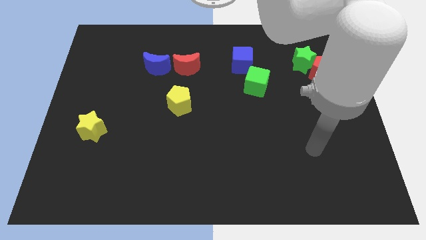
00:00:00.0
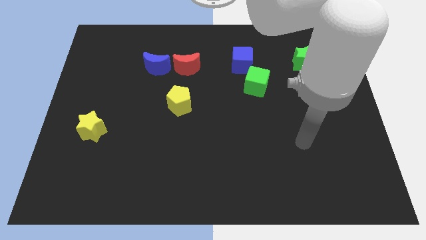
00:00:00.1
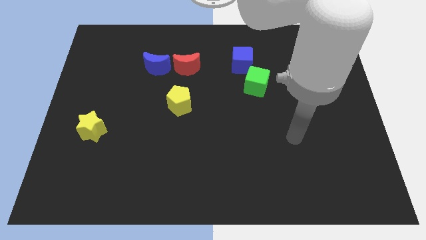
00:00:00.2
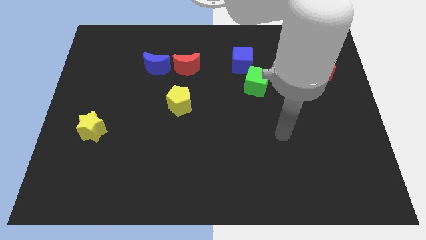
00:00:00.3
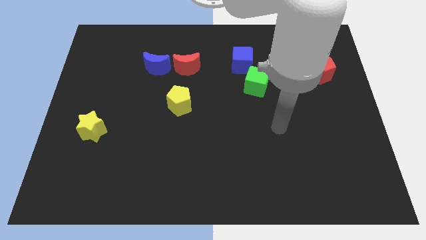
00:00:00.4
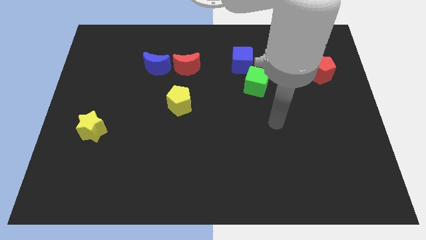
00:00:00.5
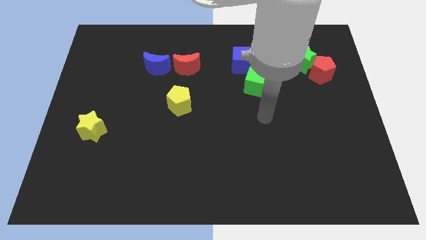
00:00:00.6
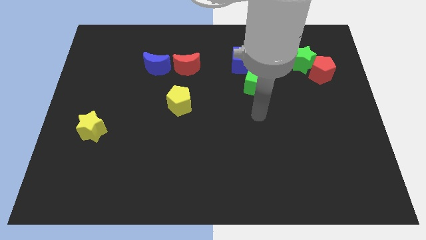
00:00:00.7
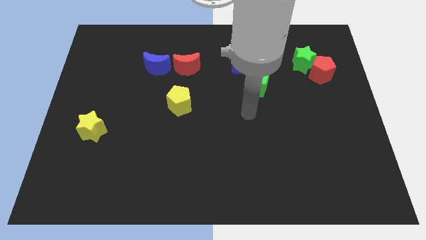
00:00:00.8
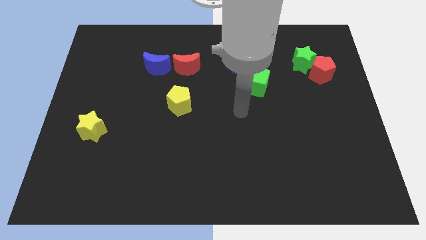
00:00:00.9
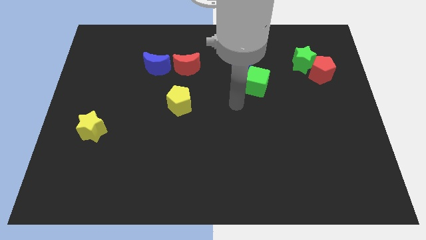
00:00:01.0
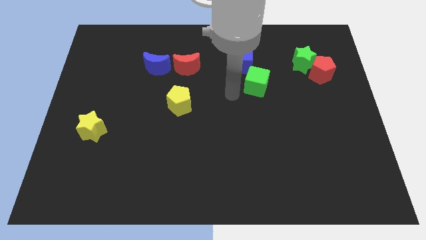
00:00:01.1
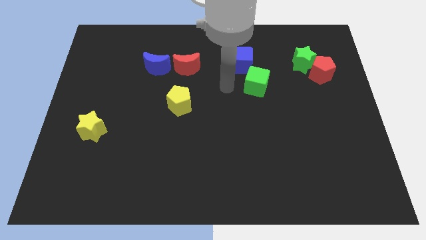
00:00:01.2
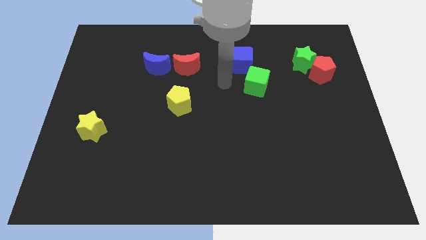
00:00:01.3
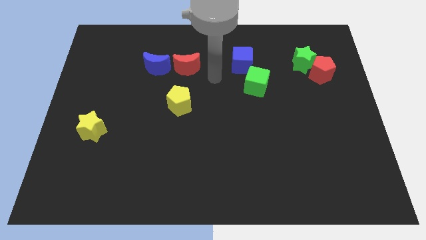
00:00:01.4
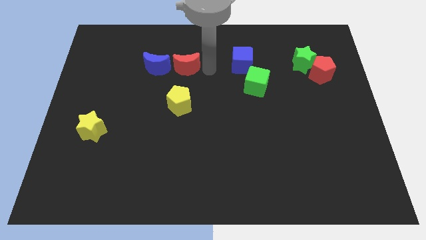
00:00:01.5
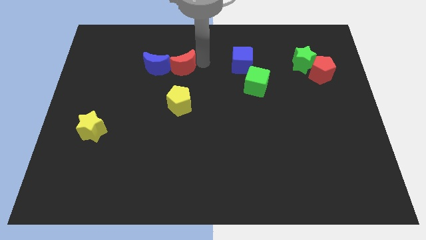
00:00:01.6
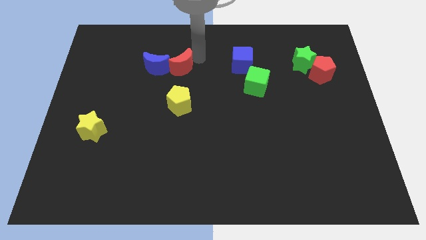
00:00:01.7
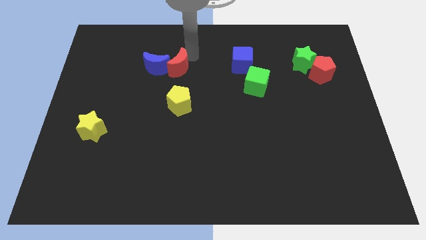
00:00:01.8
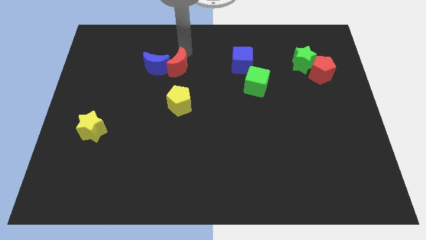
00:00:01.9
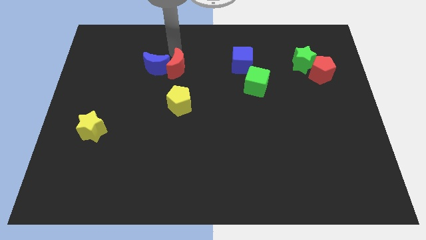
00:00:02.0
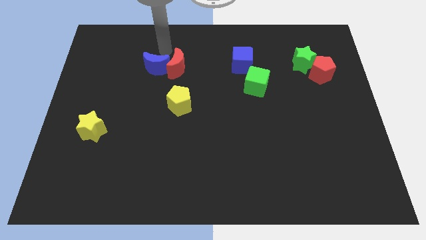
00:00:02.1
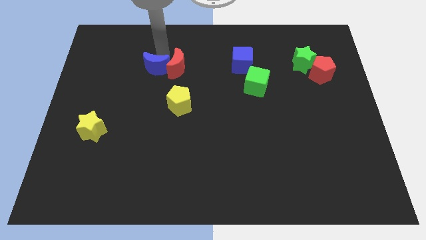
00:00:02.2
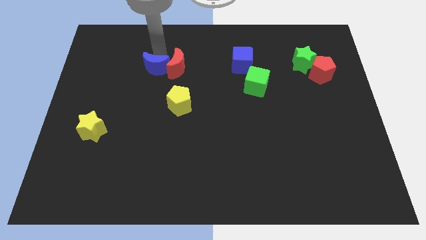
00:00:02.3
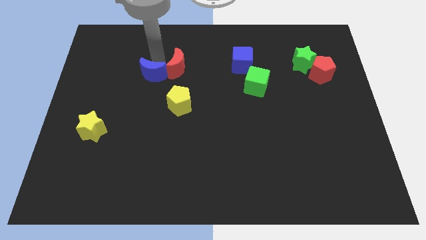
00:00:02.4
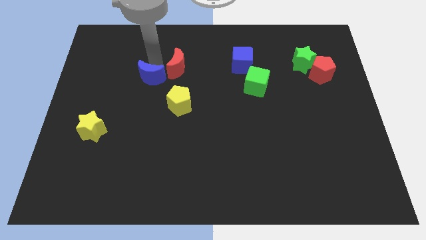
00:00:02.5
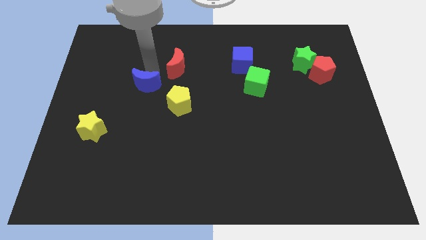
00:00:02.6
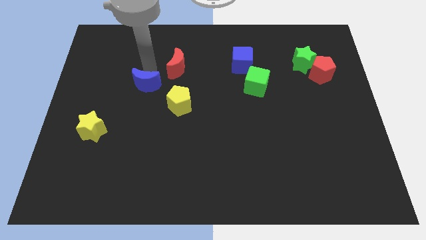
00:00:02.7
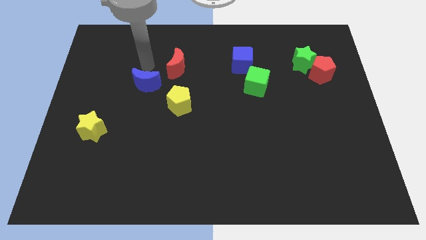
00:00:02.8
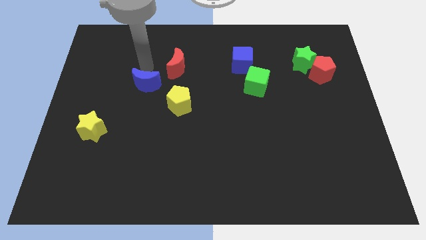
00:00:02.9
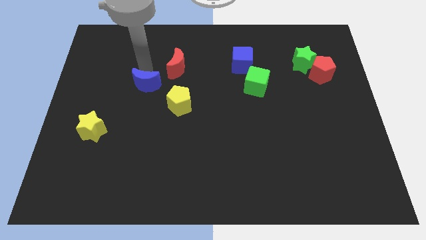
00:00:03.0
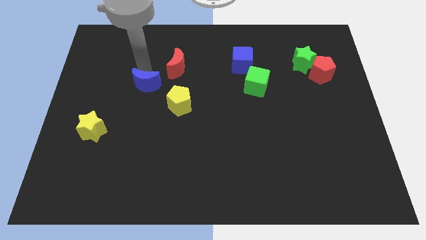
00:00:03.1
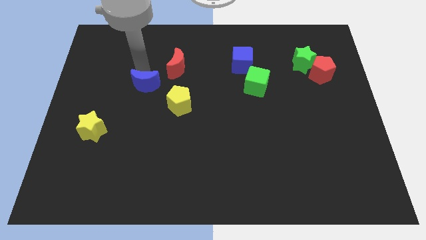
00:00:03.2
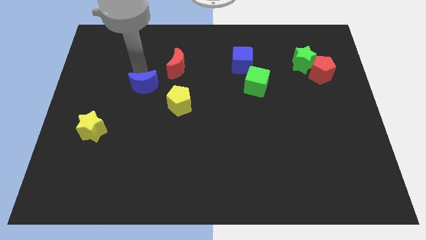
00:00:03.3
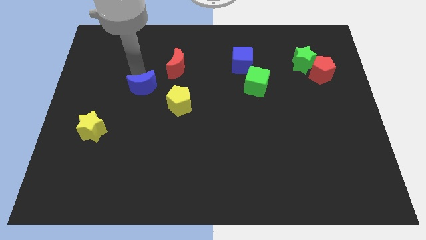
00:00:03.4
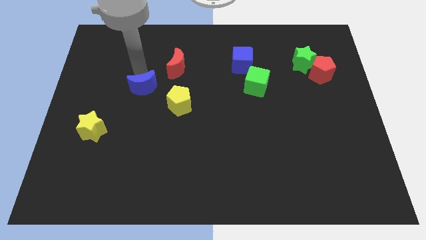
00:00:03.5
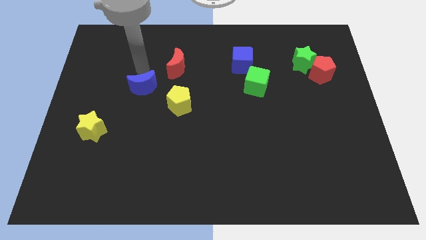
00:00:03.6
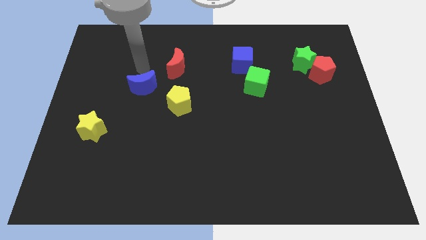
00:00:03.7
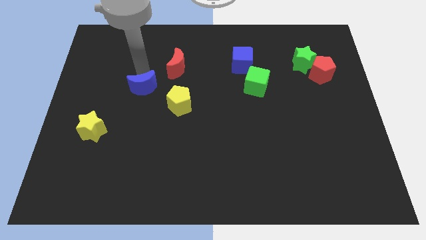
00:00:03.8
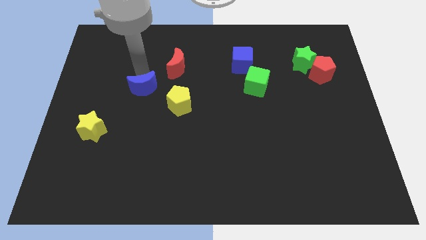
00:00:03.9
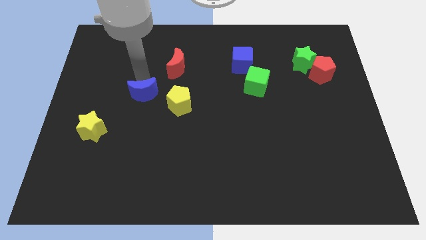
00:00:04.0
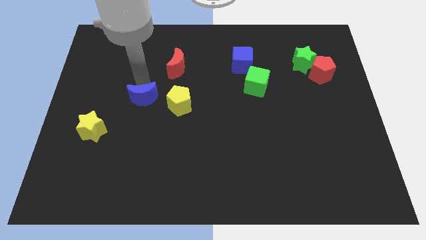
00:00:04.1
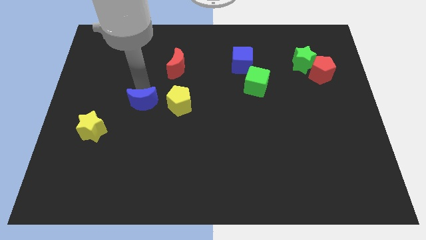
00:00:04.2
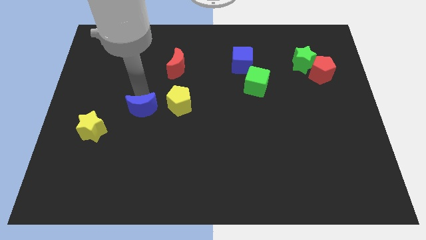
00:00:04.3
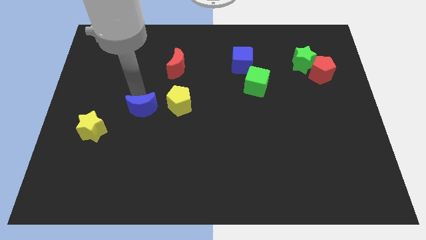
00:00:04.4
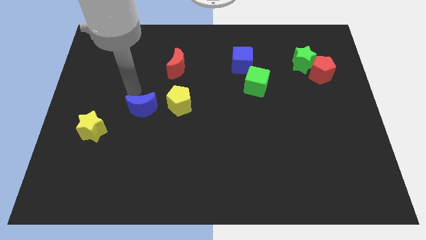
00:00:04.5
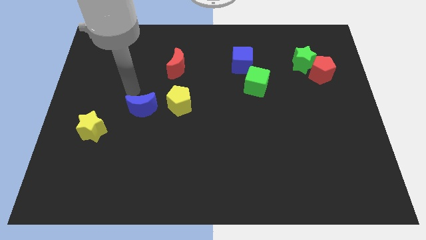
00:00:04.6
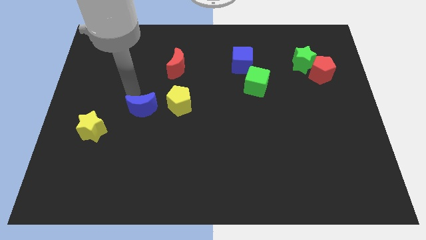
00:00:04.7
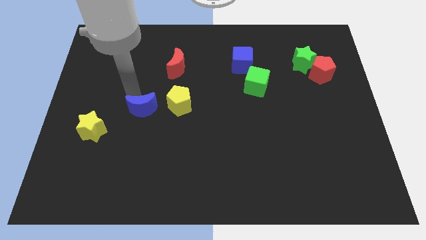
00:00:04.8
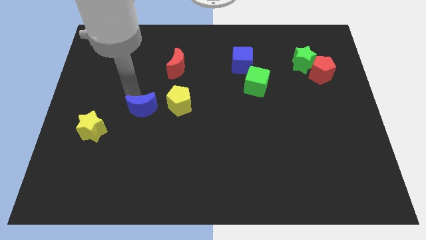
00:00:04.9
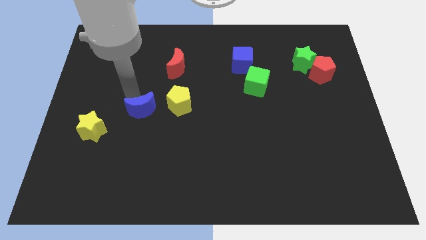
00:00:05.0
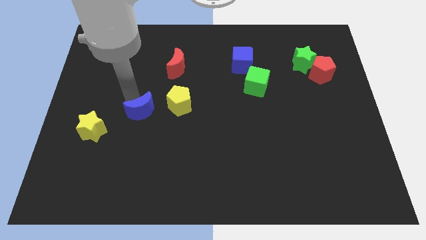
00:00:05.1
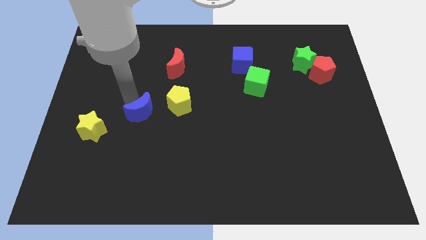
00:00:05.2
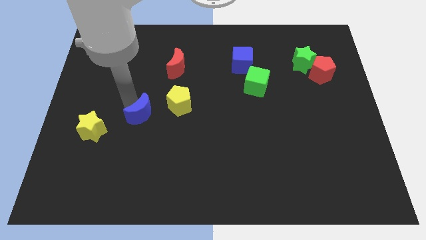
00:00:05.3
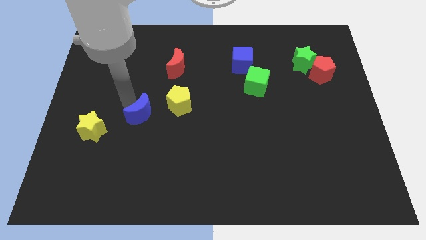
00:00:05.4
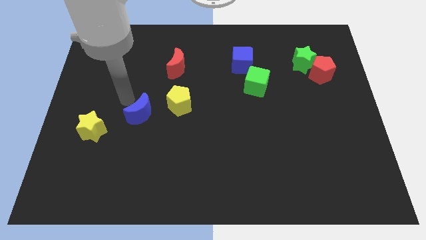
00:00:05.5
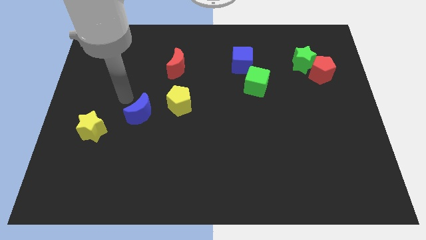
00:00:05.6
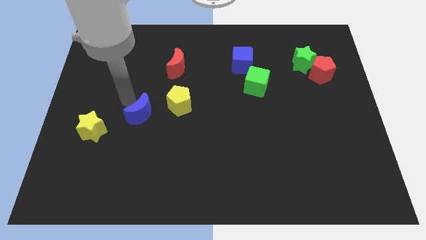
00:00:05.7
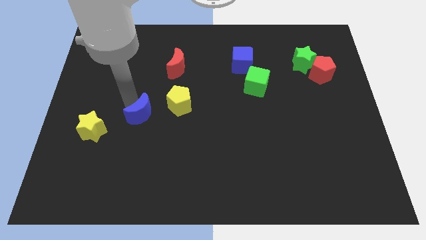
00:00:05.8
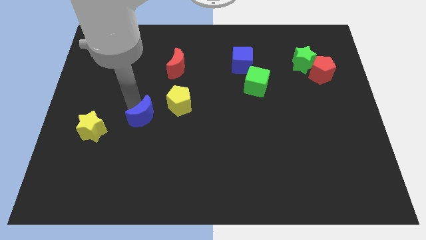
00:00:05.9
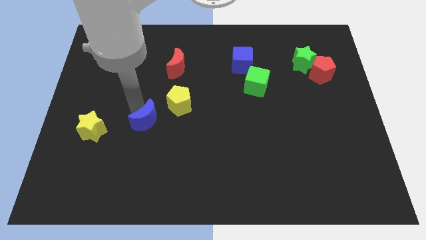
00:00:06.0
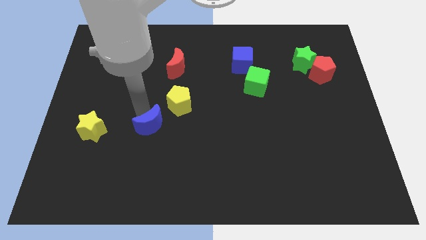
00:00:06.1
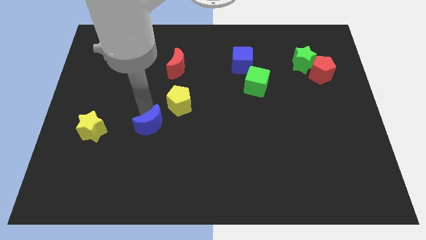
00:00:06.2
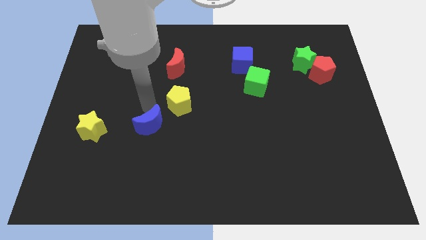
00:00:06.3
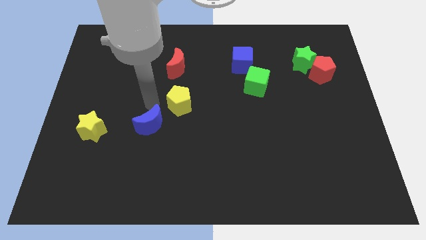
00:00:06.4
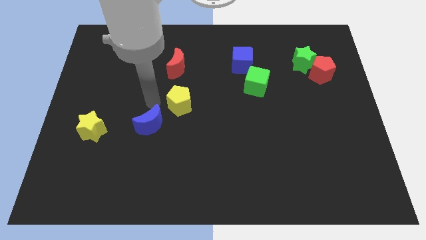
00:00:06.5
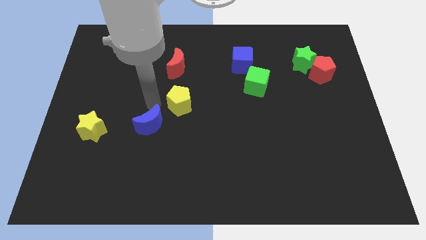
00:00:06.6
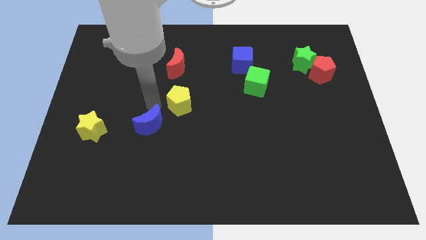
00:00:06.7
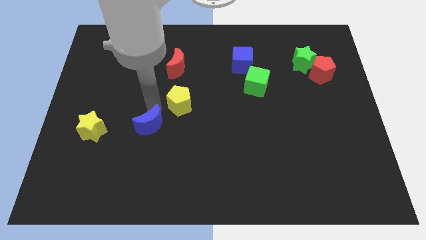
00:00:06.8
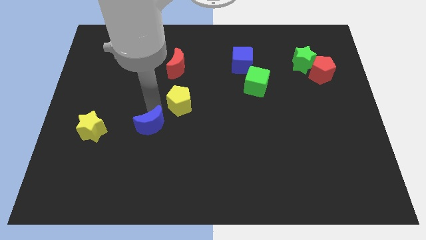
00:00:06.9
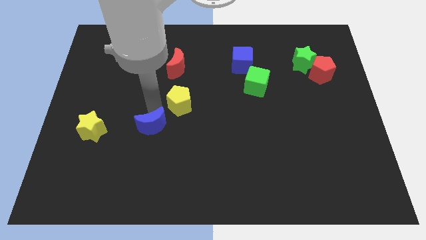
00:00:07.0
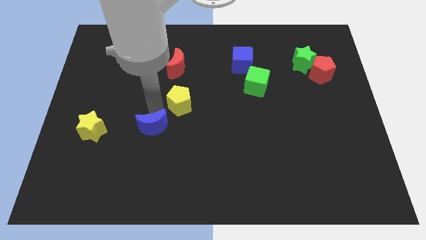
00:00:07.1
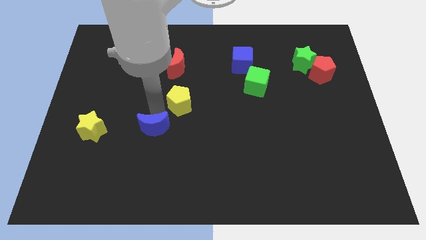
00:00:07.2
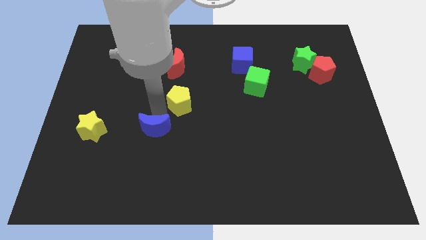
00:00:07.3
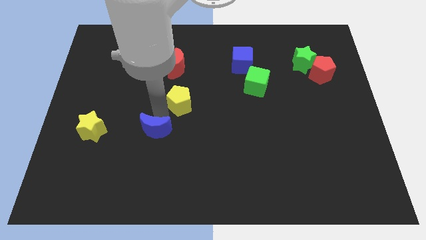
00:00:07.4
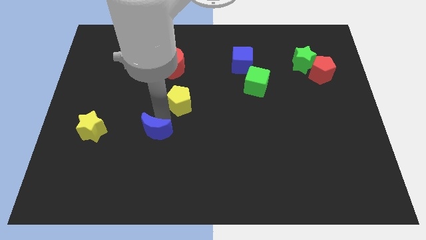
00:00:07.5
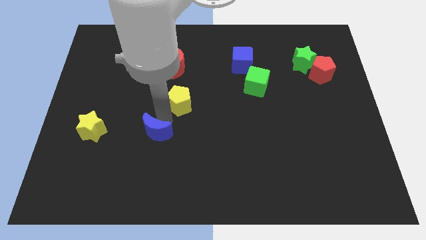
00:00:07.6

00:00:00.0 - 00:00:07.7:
move the blue moon downwards

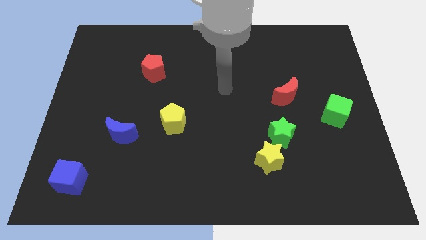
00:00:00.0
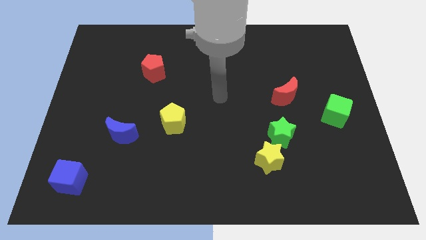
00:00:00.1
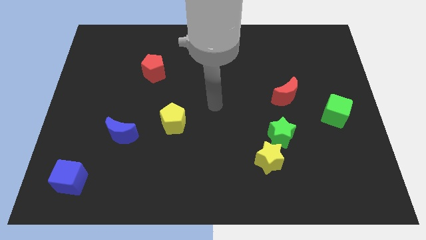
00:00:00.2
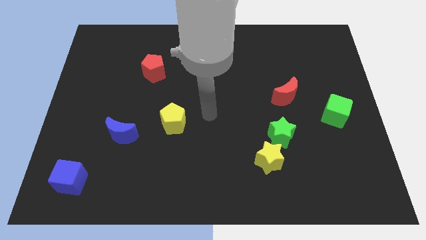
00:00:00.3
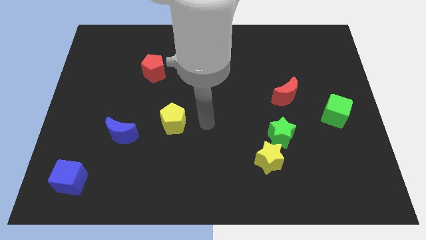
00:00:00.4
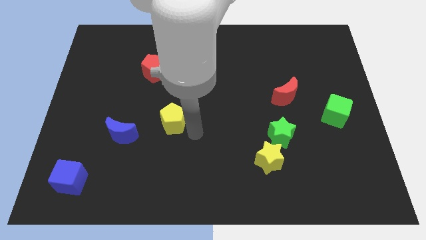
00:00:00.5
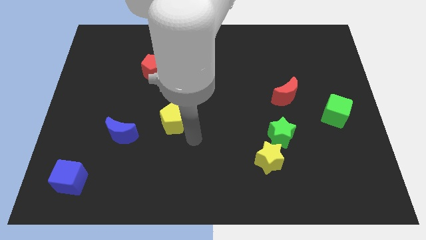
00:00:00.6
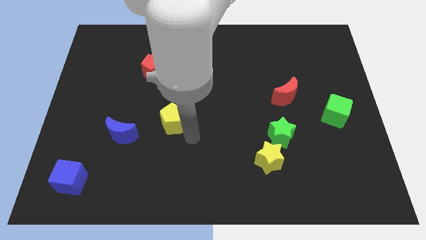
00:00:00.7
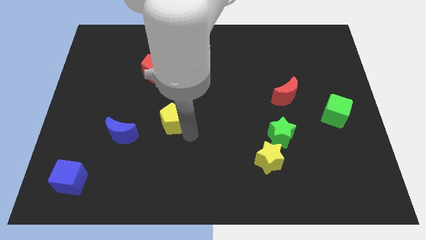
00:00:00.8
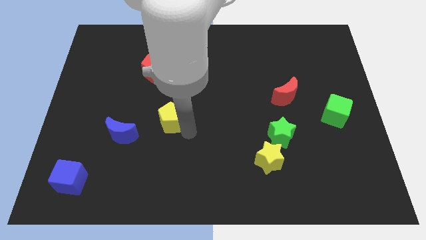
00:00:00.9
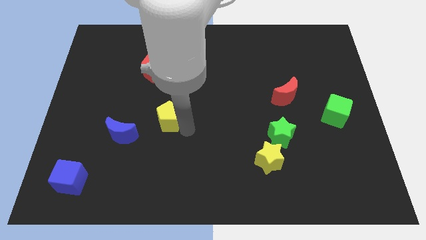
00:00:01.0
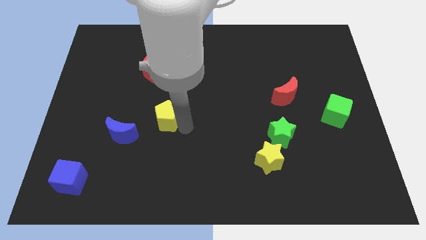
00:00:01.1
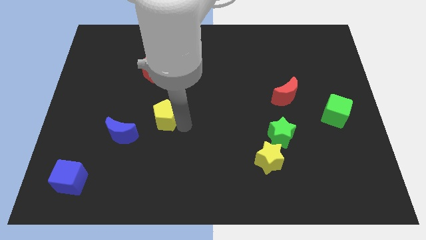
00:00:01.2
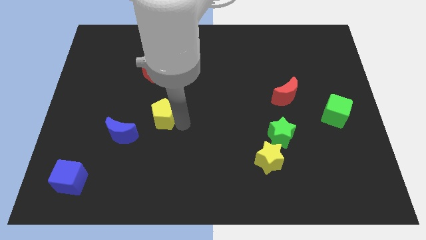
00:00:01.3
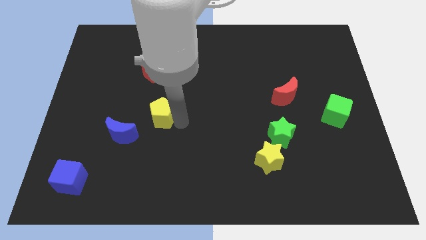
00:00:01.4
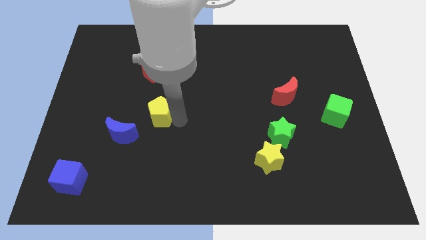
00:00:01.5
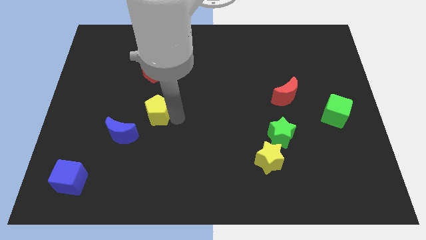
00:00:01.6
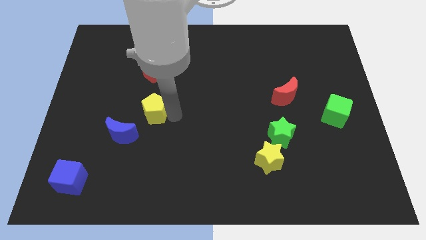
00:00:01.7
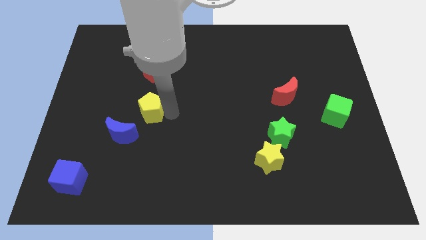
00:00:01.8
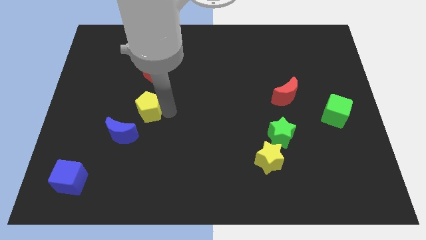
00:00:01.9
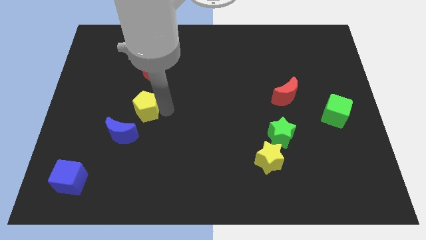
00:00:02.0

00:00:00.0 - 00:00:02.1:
move the yellow pentagon a little upwards and left
